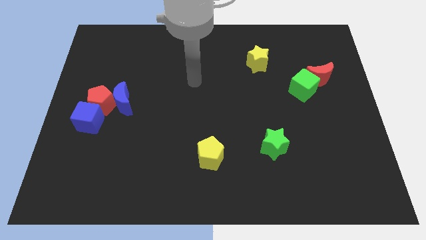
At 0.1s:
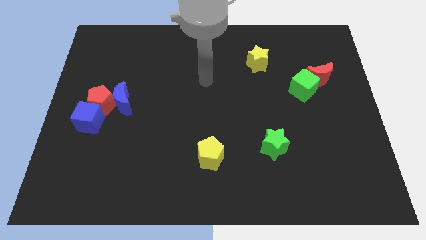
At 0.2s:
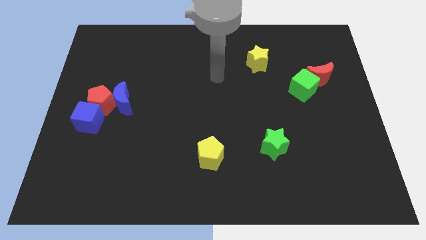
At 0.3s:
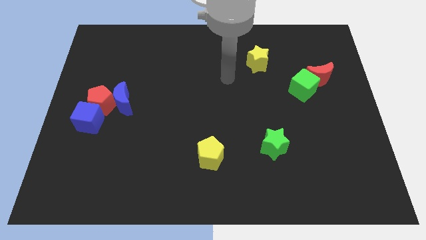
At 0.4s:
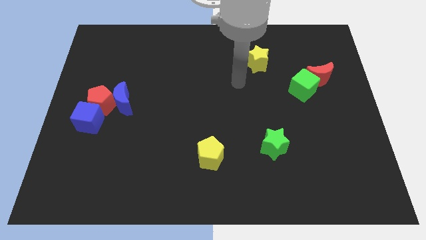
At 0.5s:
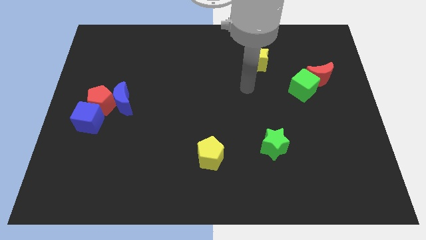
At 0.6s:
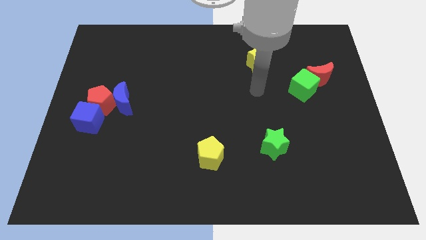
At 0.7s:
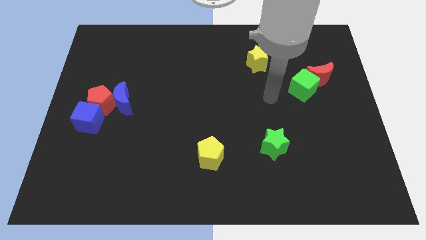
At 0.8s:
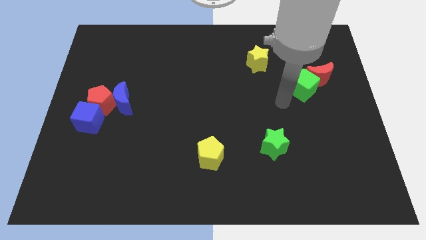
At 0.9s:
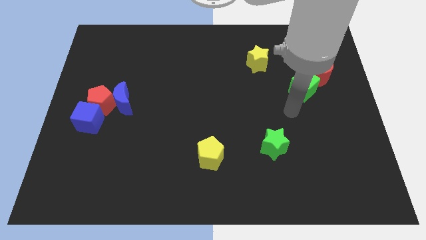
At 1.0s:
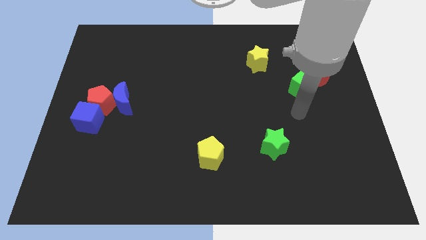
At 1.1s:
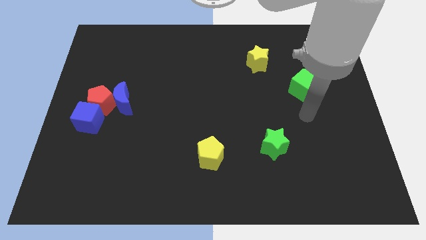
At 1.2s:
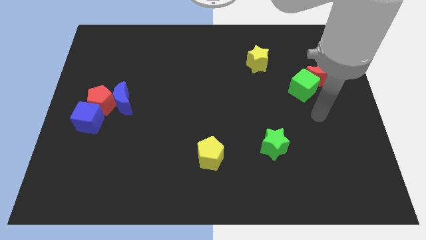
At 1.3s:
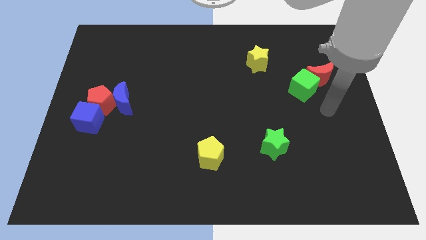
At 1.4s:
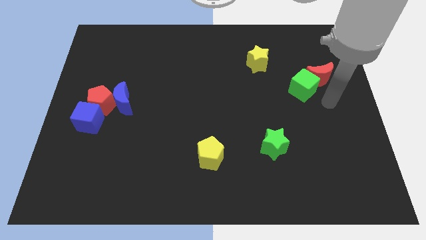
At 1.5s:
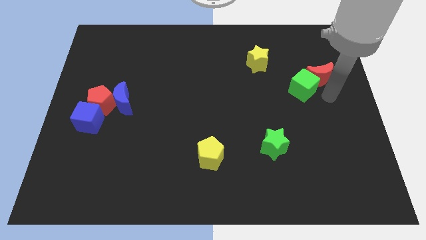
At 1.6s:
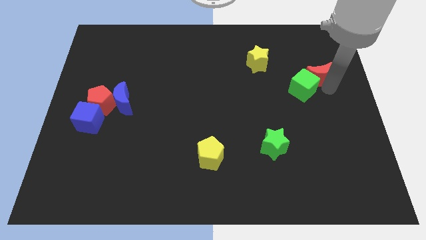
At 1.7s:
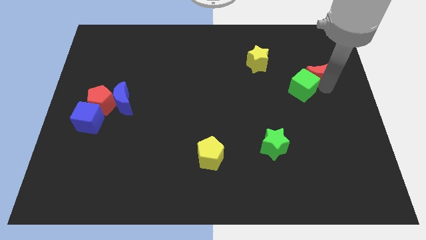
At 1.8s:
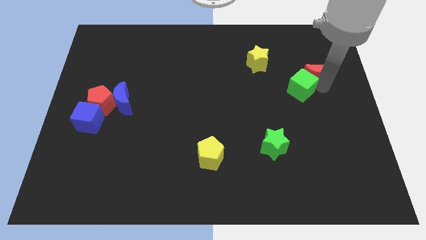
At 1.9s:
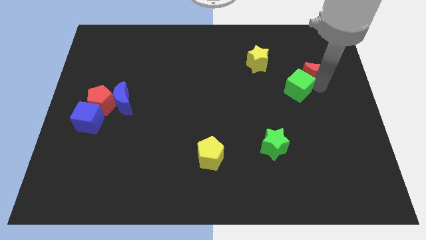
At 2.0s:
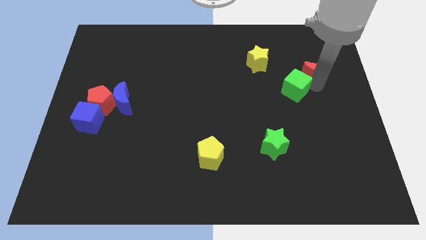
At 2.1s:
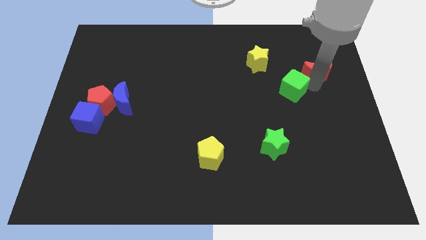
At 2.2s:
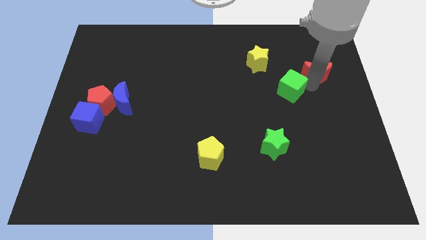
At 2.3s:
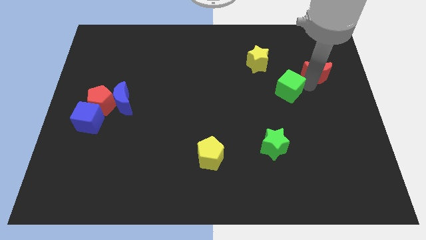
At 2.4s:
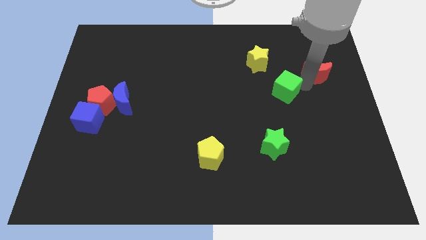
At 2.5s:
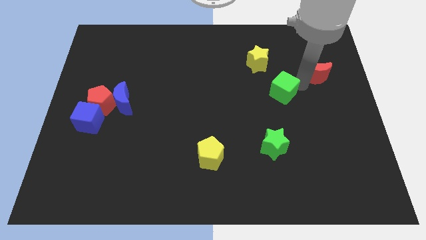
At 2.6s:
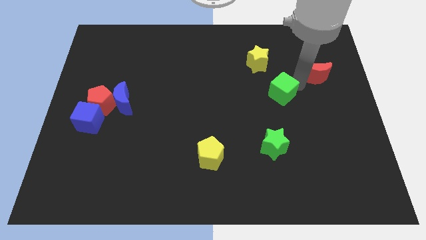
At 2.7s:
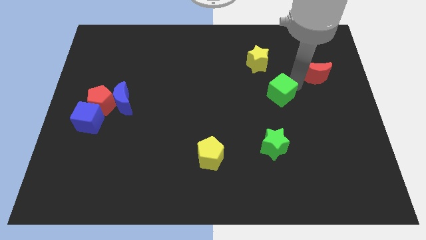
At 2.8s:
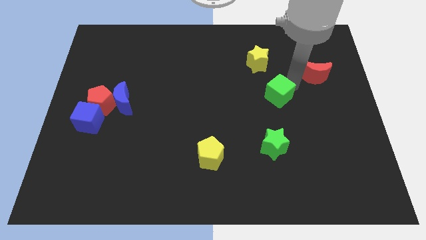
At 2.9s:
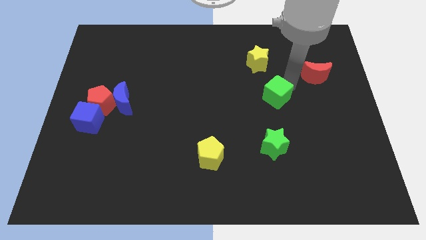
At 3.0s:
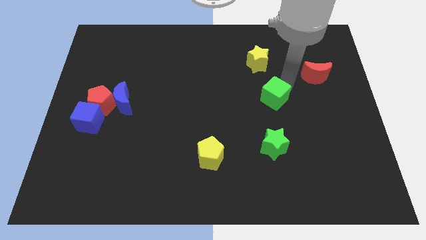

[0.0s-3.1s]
push the green cube a little left

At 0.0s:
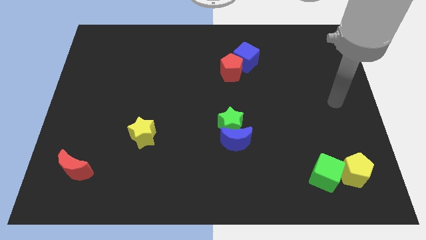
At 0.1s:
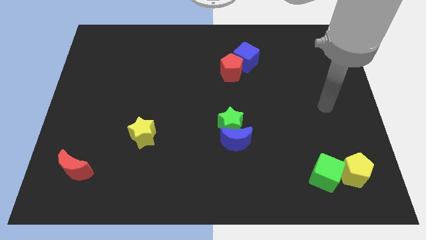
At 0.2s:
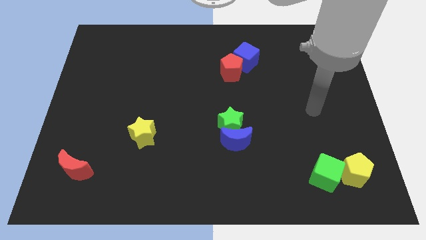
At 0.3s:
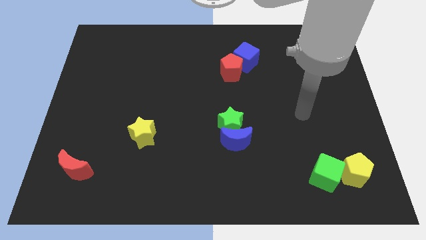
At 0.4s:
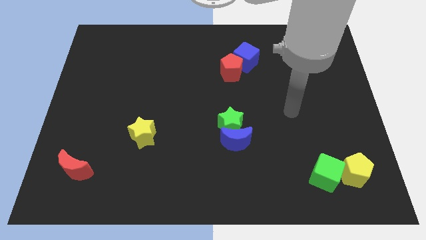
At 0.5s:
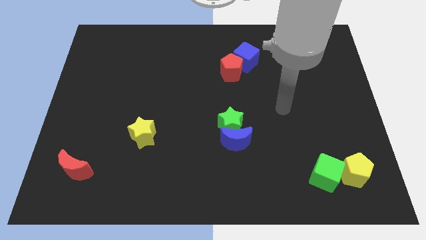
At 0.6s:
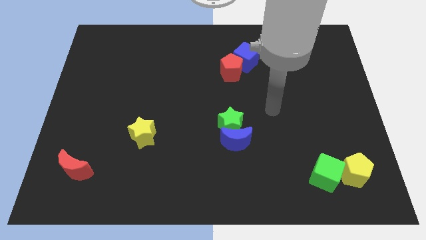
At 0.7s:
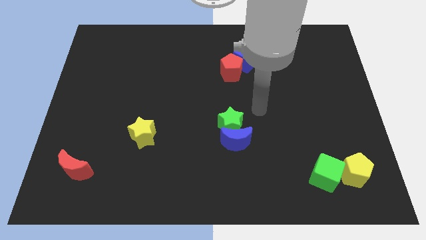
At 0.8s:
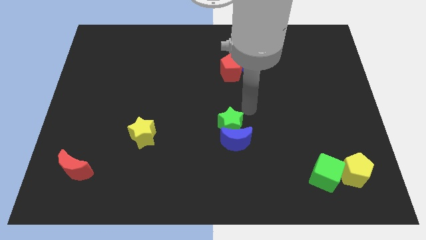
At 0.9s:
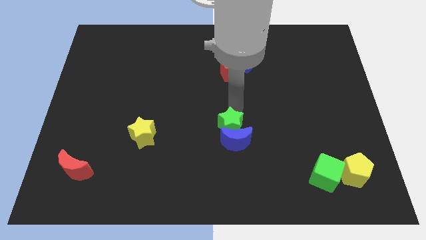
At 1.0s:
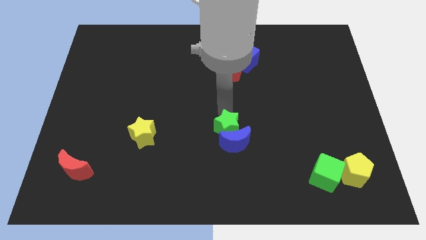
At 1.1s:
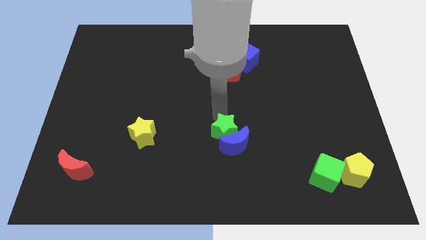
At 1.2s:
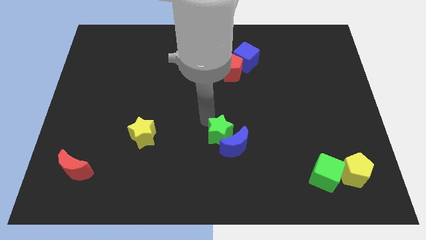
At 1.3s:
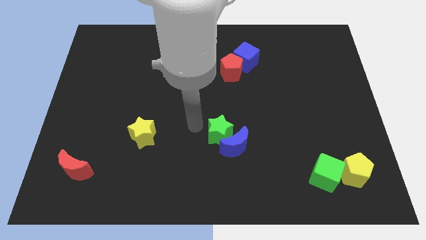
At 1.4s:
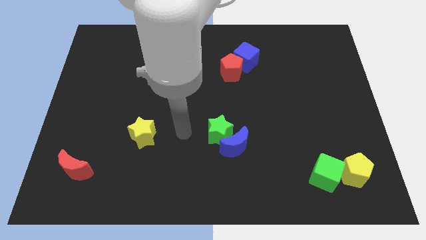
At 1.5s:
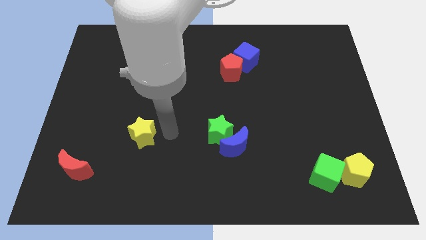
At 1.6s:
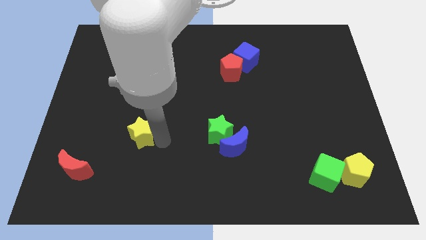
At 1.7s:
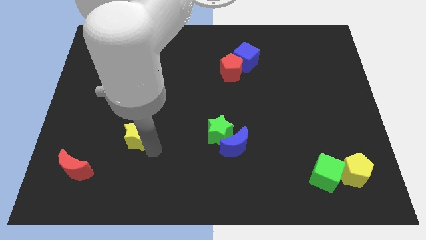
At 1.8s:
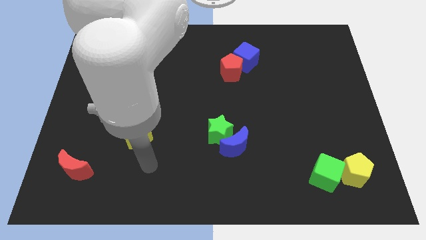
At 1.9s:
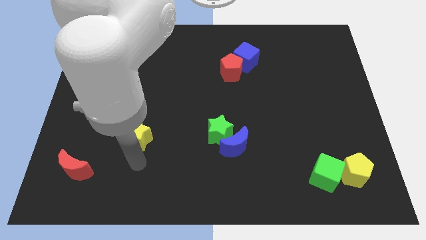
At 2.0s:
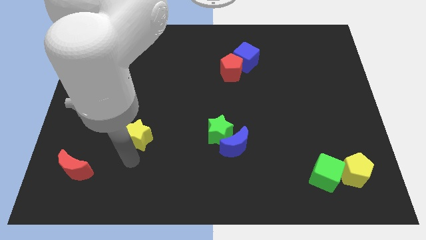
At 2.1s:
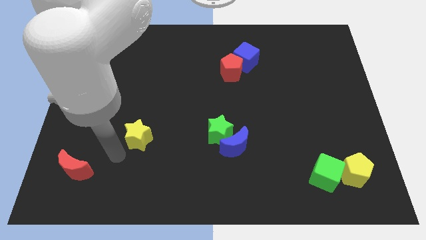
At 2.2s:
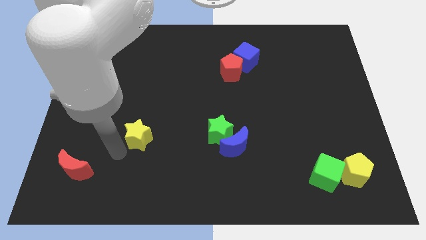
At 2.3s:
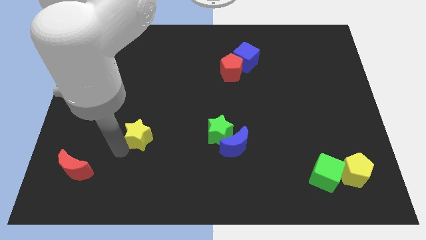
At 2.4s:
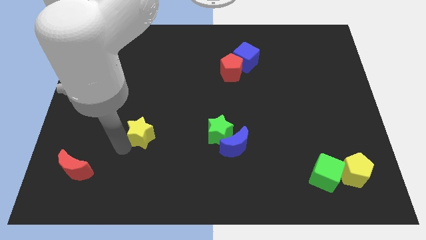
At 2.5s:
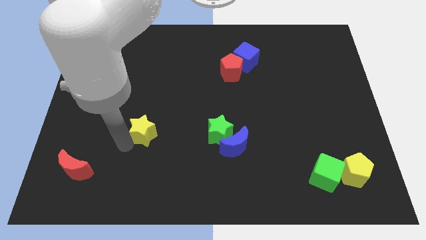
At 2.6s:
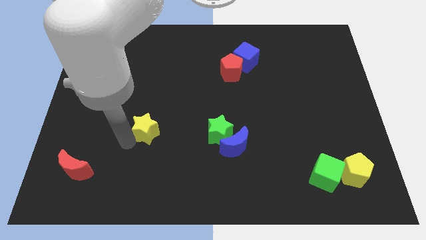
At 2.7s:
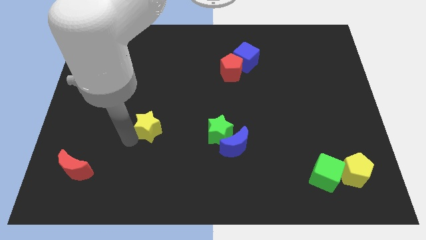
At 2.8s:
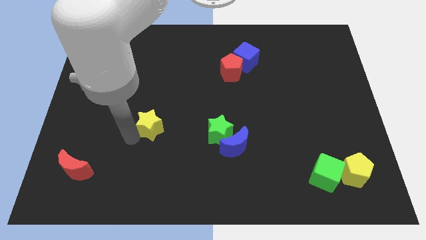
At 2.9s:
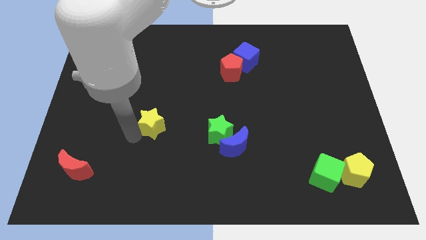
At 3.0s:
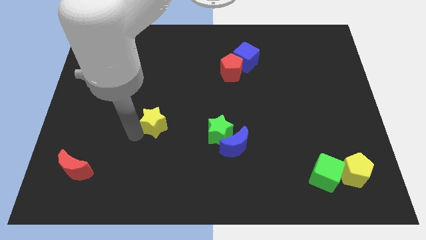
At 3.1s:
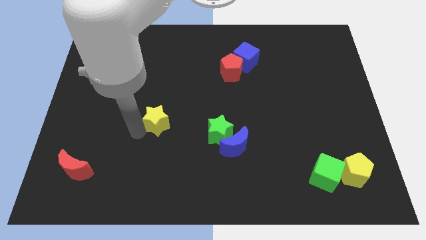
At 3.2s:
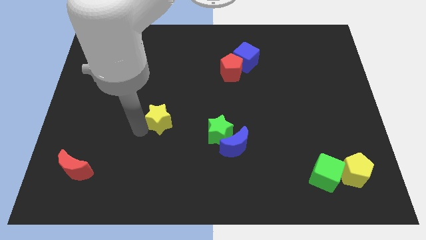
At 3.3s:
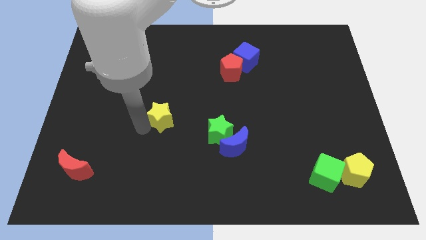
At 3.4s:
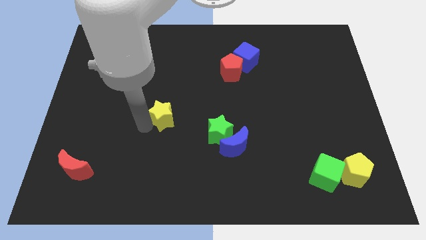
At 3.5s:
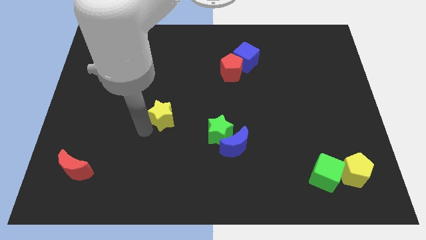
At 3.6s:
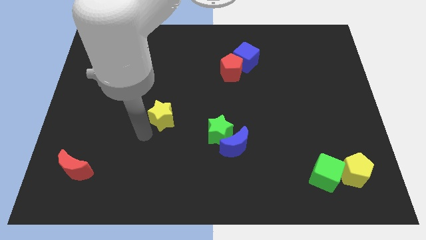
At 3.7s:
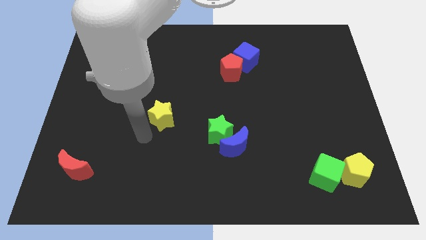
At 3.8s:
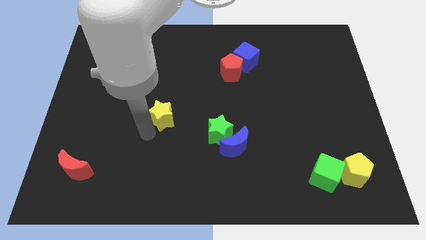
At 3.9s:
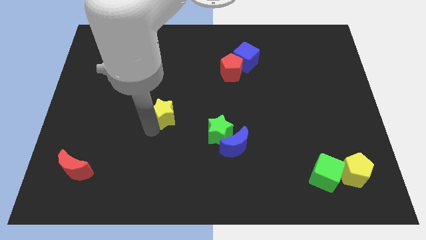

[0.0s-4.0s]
move the yellow star a bit upwards and then to the right

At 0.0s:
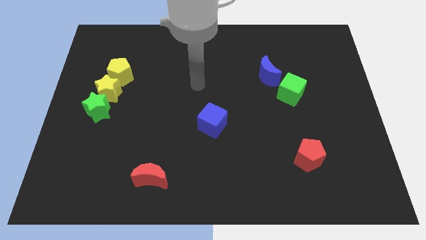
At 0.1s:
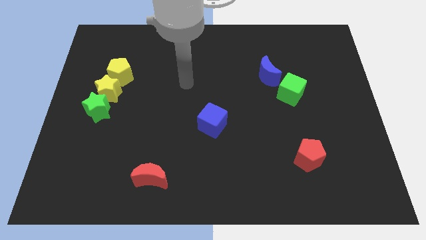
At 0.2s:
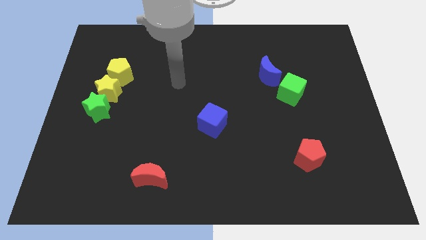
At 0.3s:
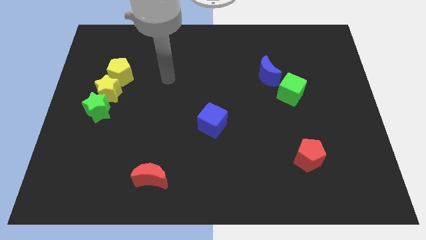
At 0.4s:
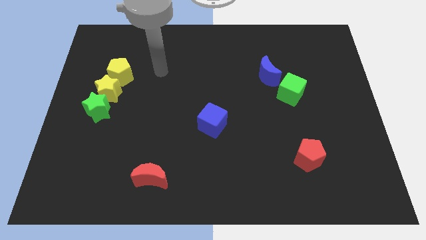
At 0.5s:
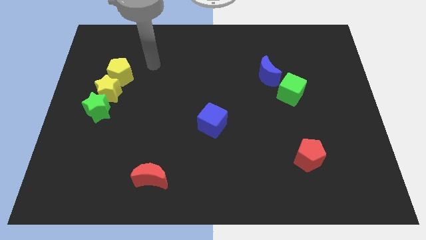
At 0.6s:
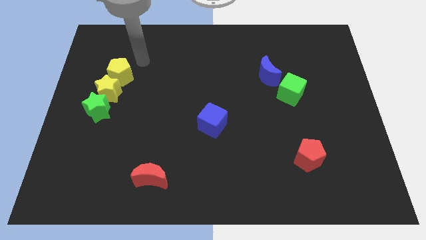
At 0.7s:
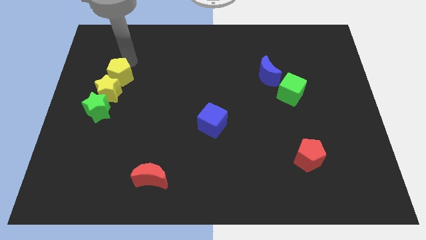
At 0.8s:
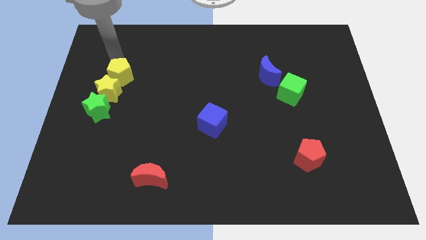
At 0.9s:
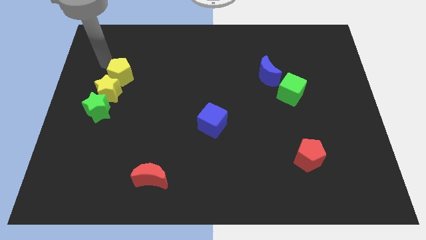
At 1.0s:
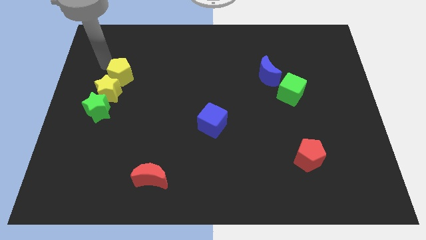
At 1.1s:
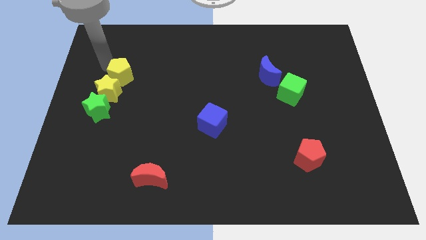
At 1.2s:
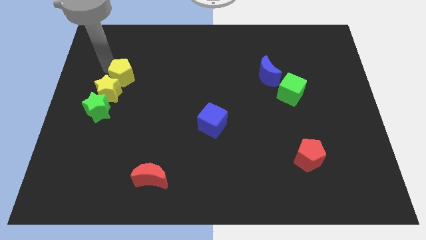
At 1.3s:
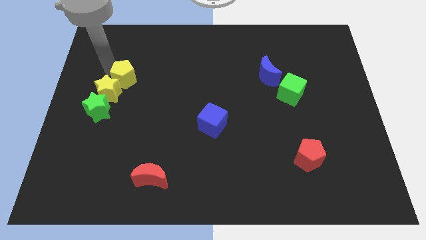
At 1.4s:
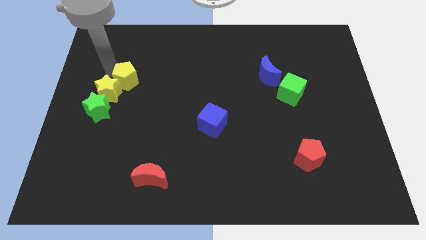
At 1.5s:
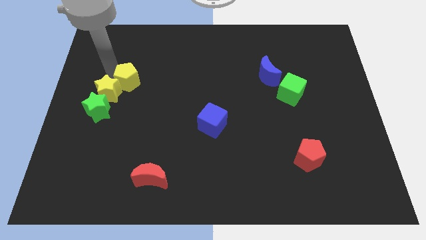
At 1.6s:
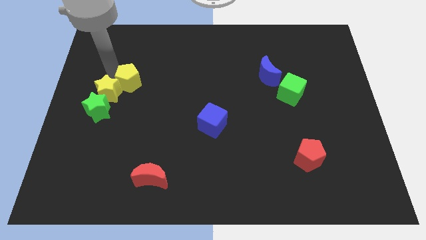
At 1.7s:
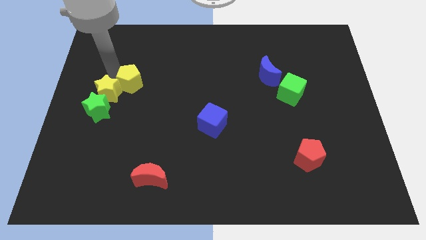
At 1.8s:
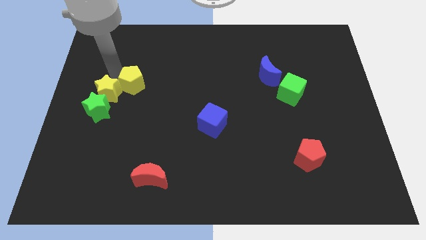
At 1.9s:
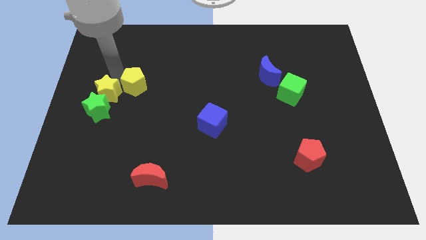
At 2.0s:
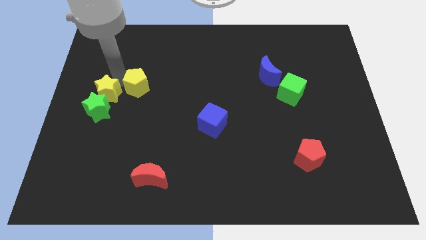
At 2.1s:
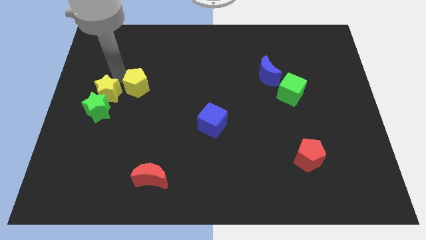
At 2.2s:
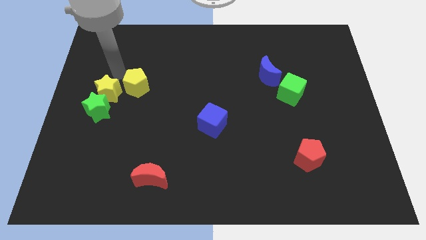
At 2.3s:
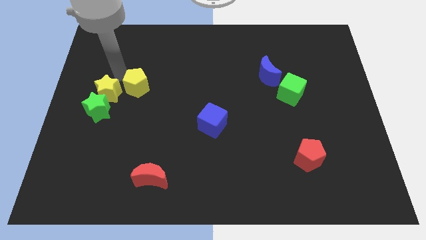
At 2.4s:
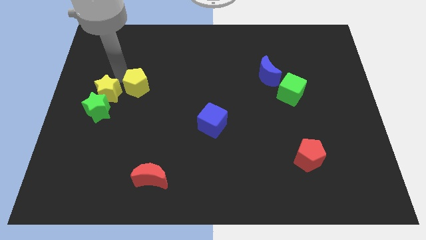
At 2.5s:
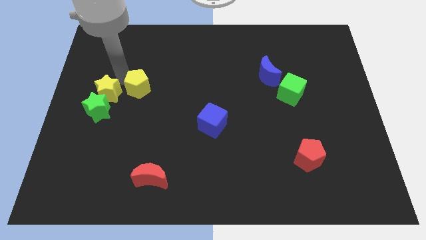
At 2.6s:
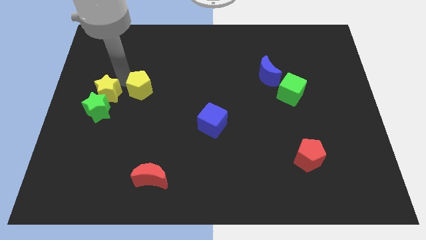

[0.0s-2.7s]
slightly move the yellow pentagon down and then to the right
